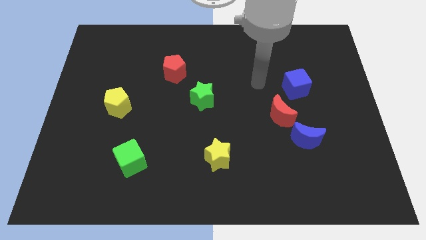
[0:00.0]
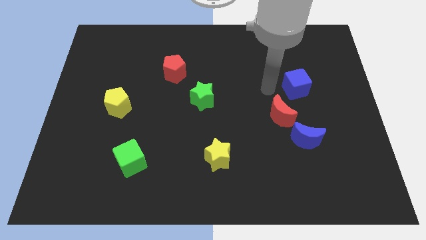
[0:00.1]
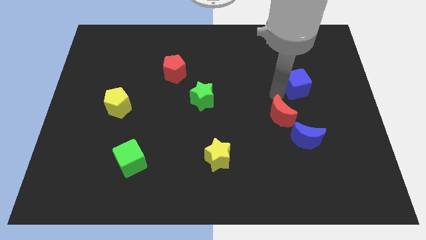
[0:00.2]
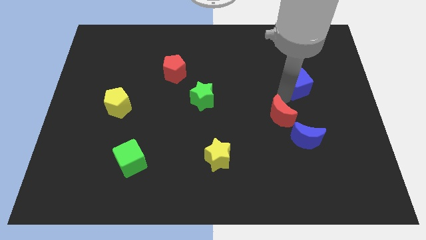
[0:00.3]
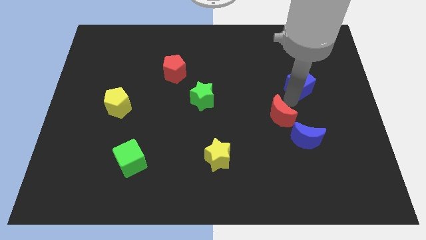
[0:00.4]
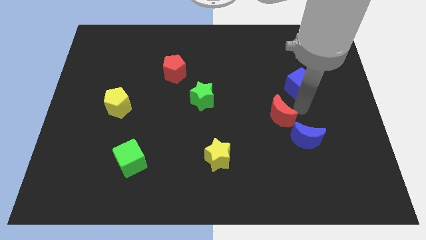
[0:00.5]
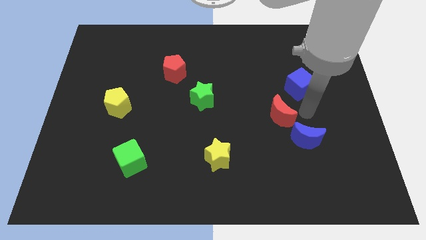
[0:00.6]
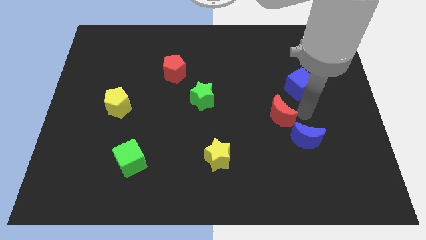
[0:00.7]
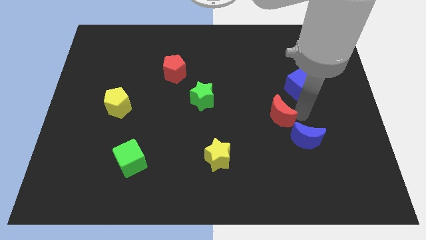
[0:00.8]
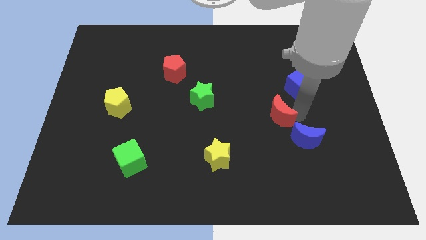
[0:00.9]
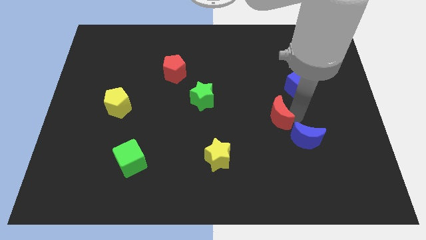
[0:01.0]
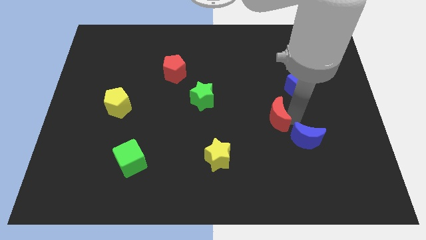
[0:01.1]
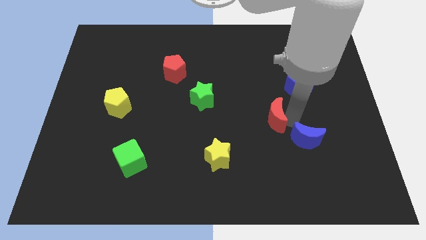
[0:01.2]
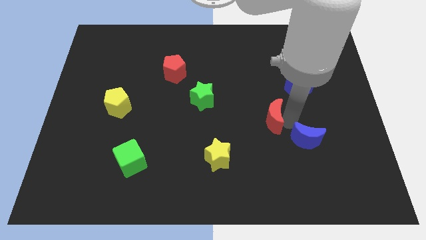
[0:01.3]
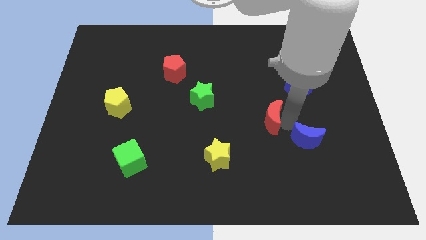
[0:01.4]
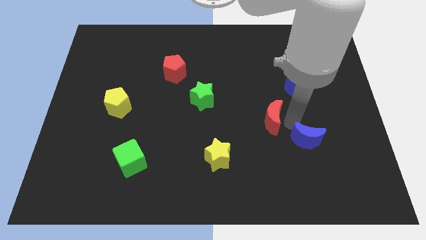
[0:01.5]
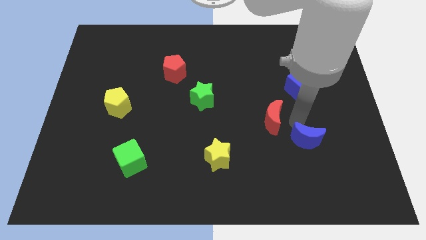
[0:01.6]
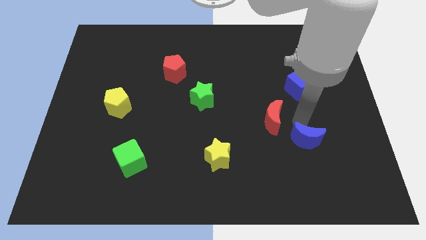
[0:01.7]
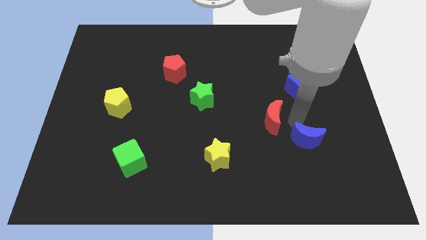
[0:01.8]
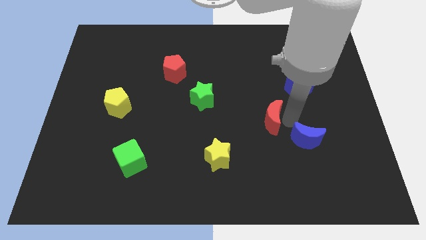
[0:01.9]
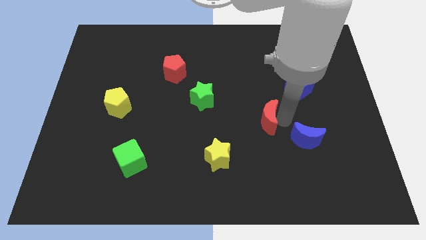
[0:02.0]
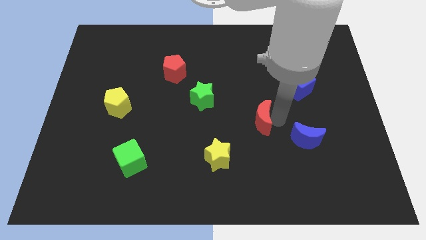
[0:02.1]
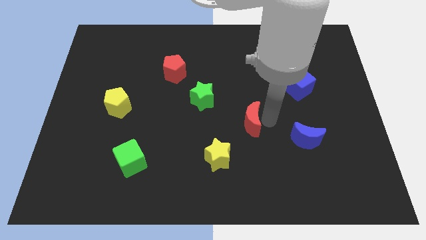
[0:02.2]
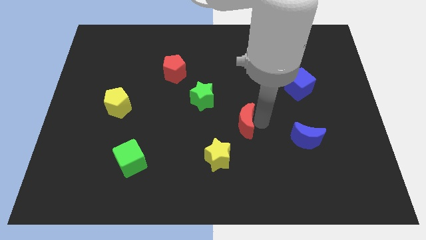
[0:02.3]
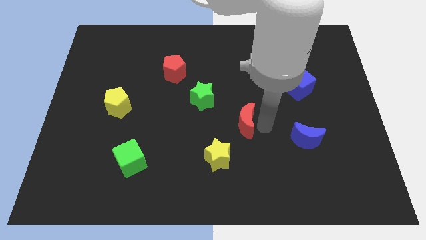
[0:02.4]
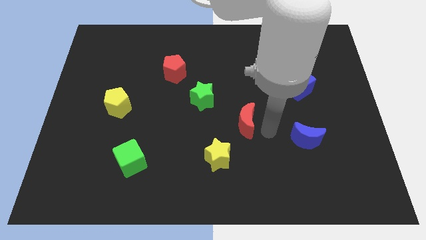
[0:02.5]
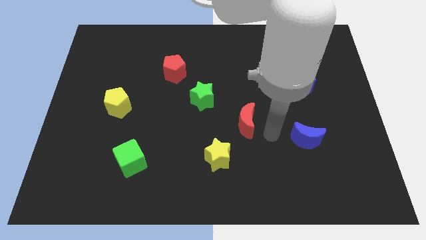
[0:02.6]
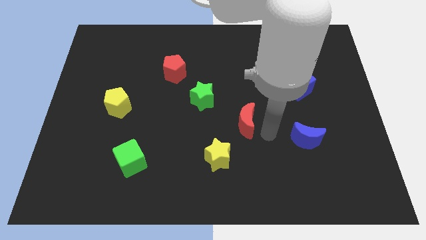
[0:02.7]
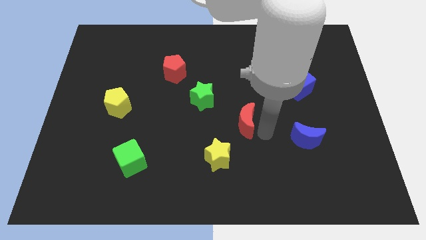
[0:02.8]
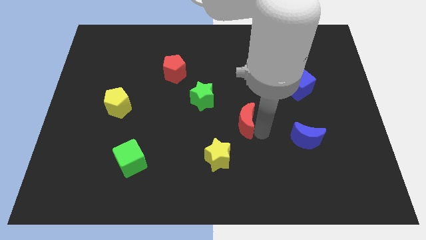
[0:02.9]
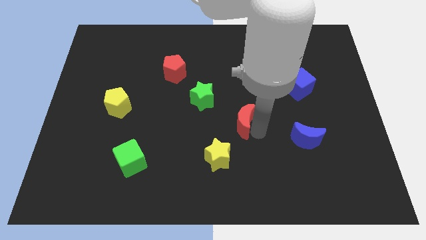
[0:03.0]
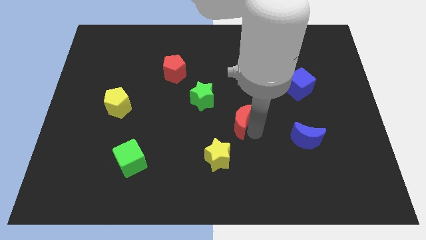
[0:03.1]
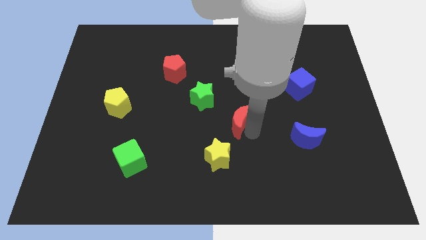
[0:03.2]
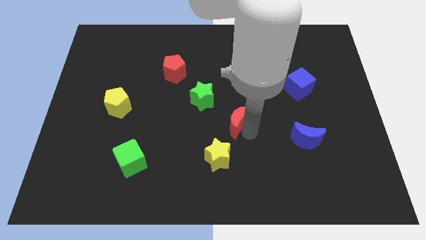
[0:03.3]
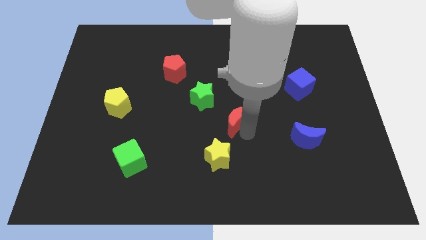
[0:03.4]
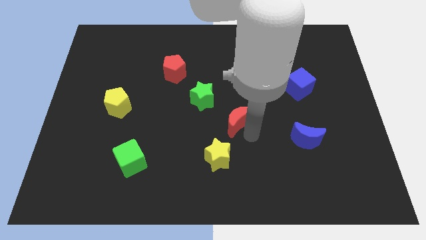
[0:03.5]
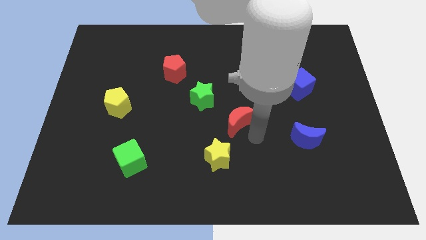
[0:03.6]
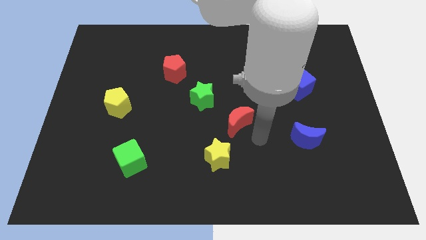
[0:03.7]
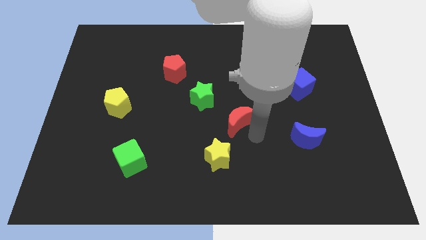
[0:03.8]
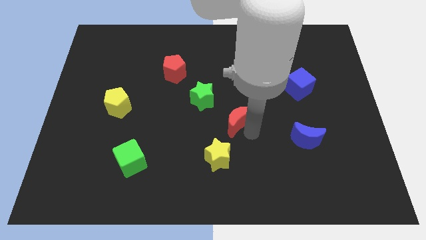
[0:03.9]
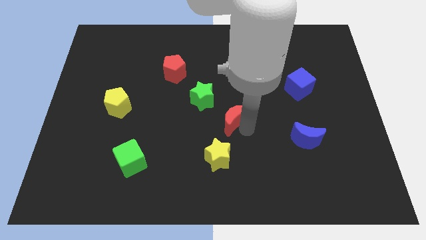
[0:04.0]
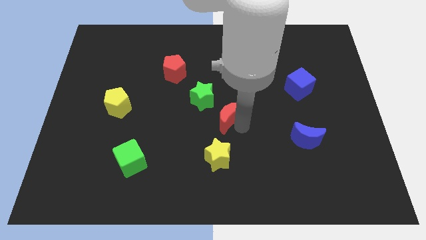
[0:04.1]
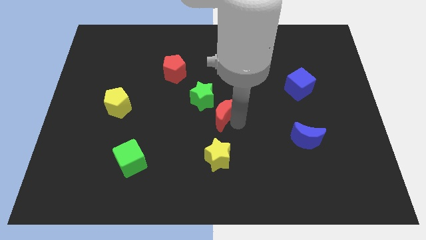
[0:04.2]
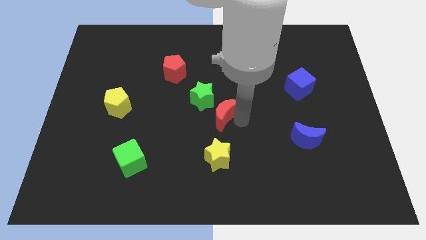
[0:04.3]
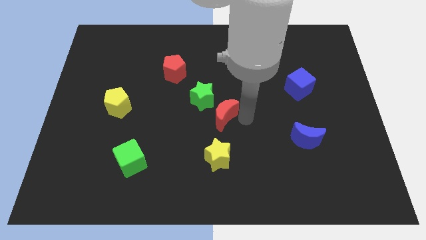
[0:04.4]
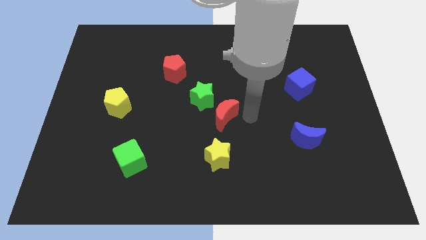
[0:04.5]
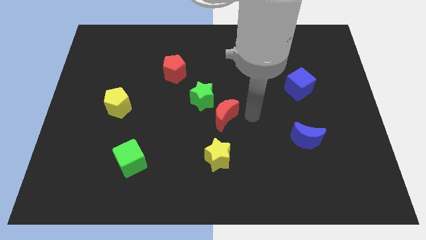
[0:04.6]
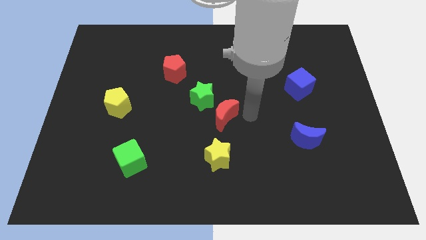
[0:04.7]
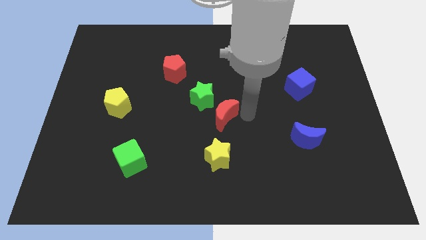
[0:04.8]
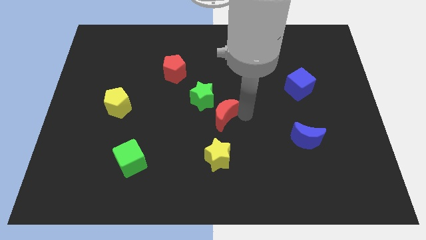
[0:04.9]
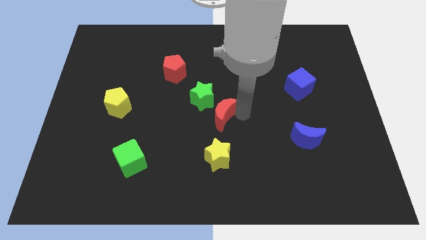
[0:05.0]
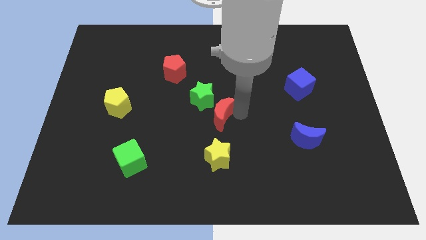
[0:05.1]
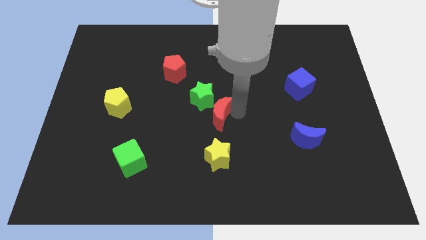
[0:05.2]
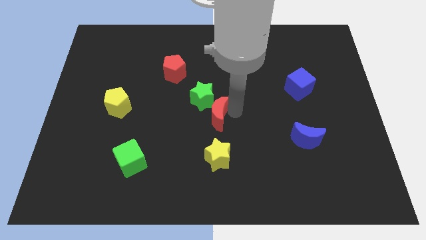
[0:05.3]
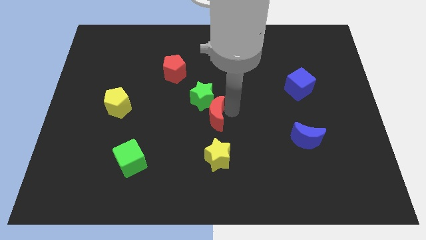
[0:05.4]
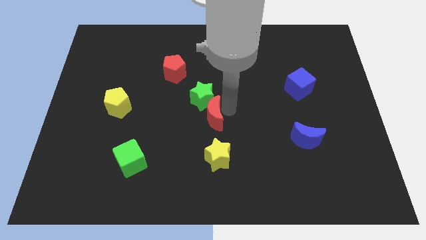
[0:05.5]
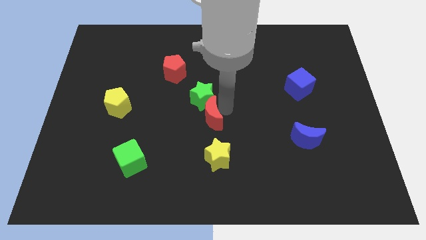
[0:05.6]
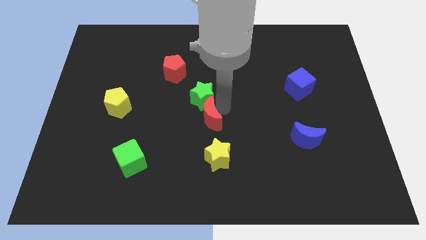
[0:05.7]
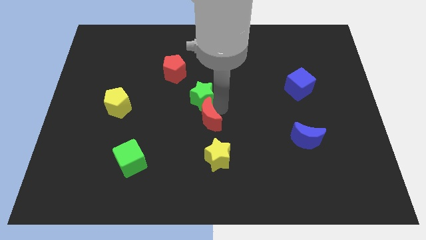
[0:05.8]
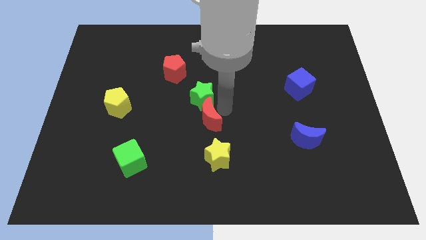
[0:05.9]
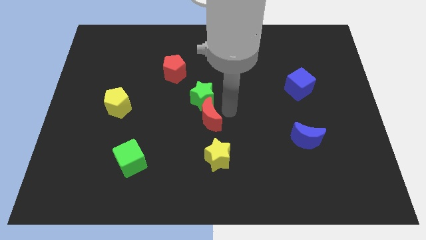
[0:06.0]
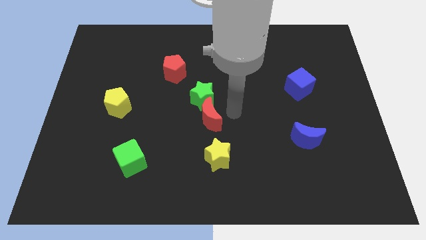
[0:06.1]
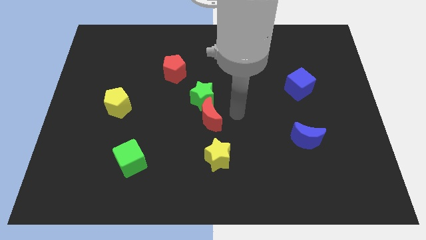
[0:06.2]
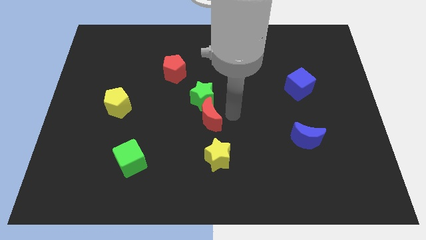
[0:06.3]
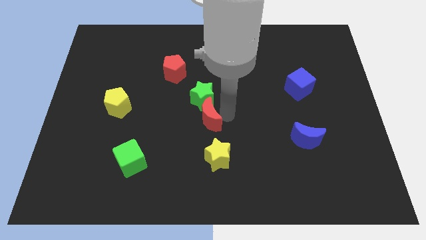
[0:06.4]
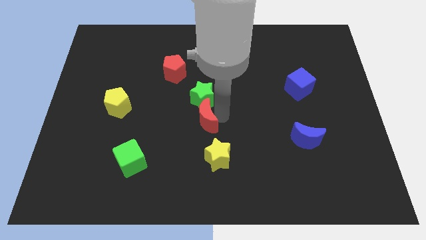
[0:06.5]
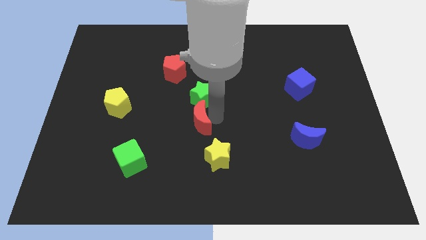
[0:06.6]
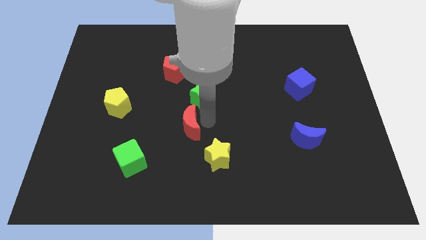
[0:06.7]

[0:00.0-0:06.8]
move the red moon to the left

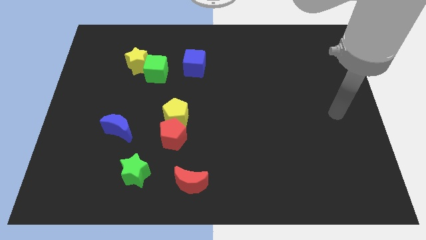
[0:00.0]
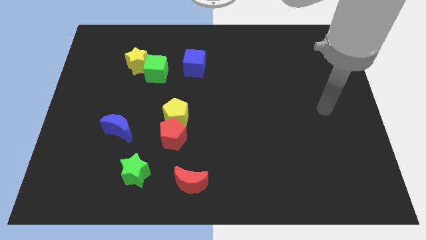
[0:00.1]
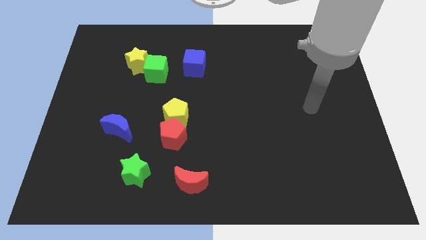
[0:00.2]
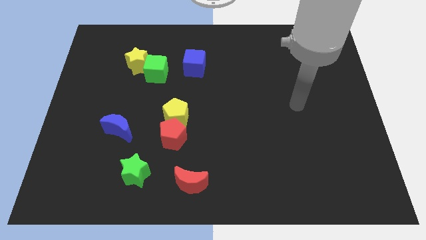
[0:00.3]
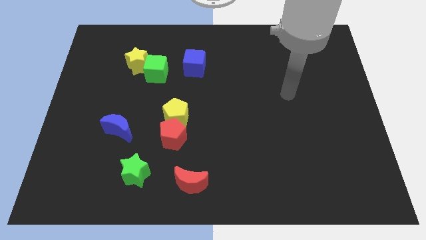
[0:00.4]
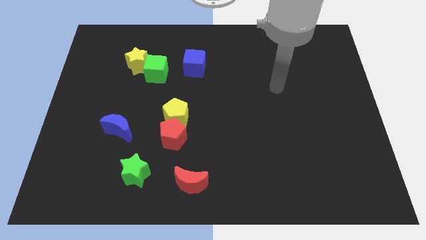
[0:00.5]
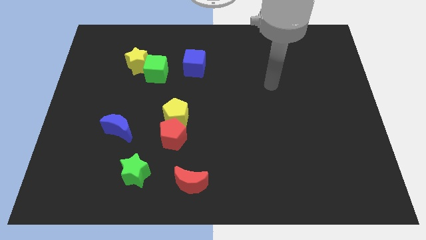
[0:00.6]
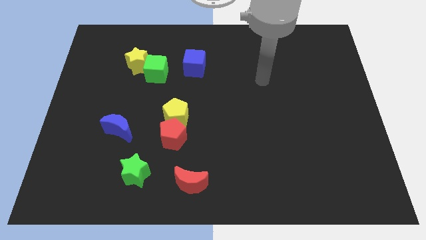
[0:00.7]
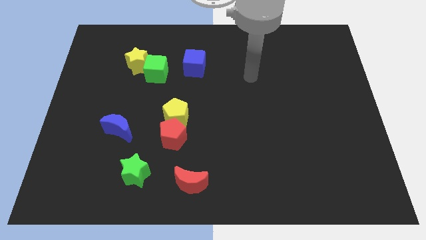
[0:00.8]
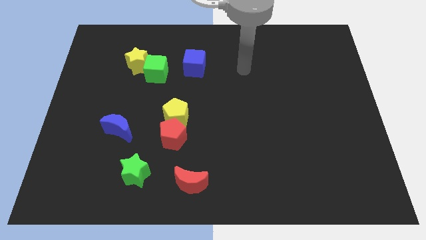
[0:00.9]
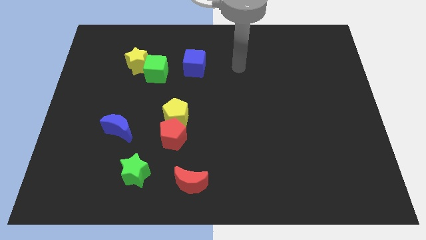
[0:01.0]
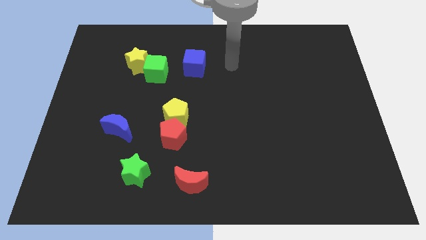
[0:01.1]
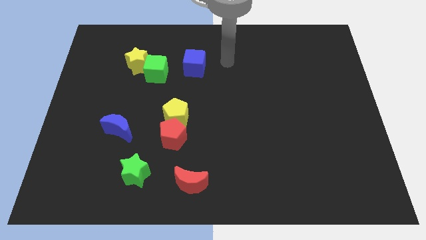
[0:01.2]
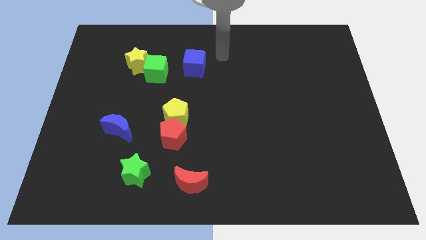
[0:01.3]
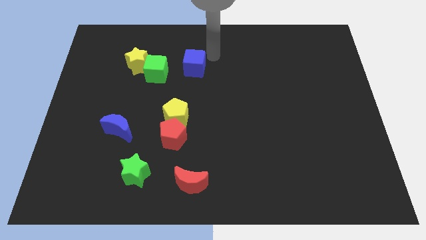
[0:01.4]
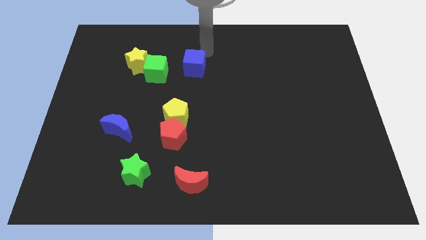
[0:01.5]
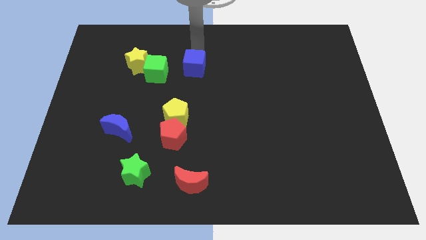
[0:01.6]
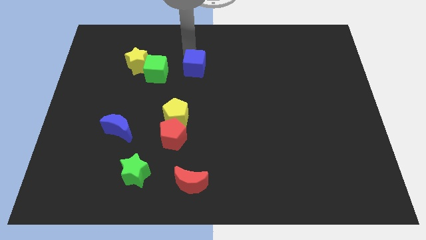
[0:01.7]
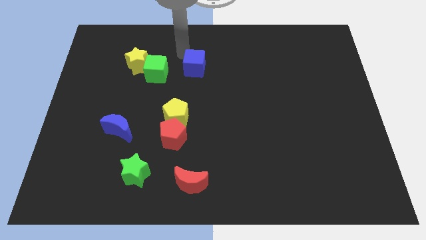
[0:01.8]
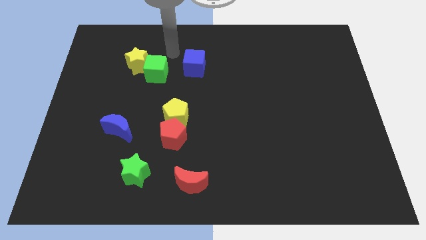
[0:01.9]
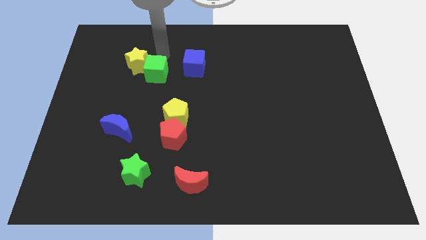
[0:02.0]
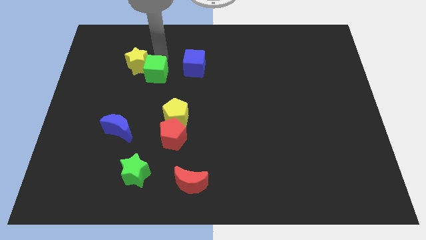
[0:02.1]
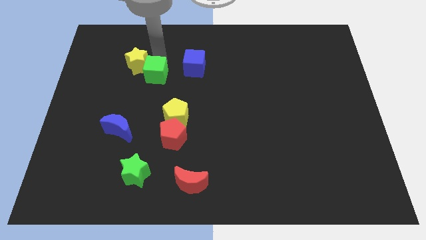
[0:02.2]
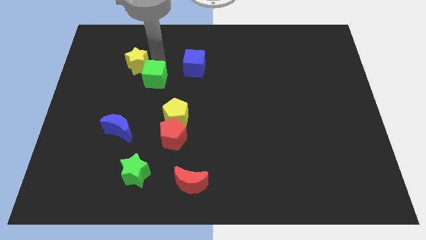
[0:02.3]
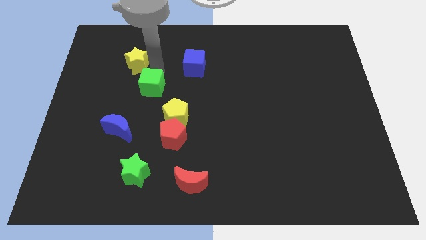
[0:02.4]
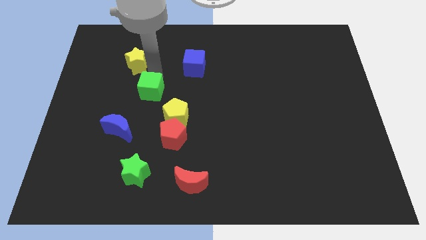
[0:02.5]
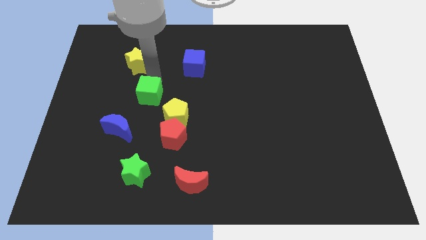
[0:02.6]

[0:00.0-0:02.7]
move the green cube a little bit down
